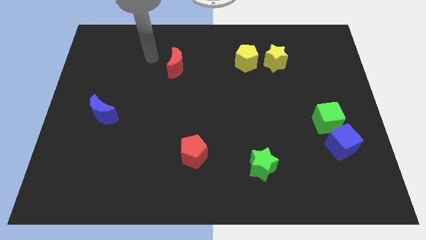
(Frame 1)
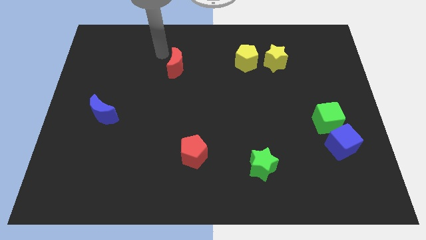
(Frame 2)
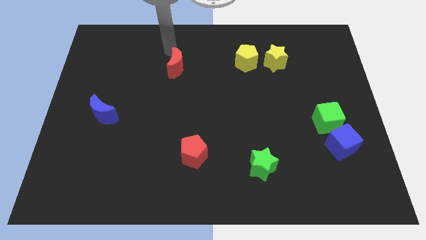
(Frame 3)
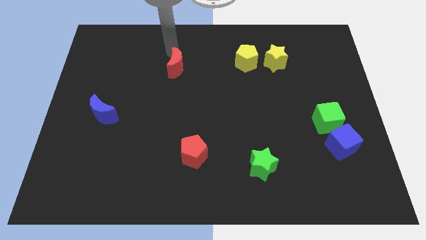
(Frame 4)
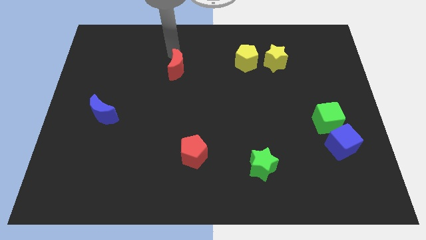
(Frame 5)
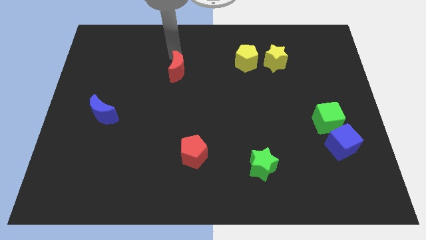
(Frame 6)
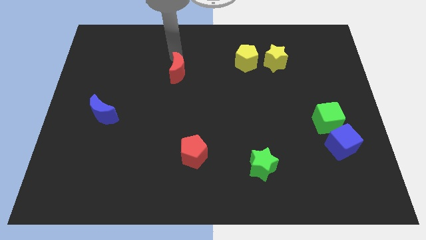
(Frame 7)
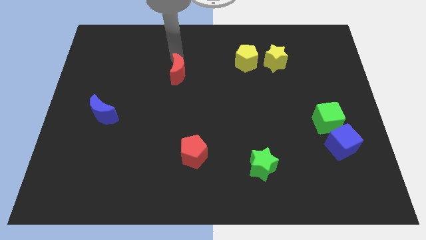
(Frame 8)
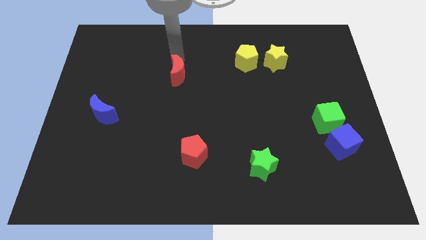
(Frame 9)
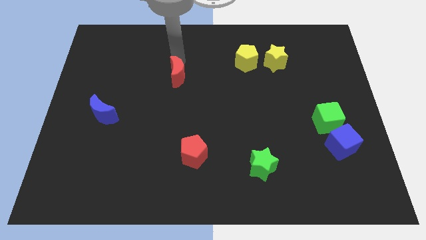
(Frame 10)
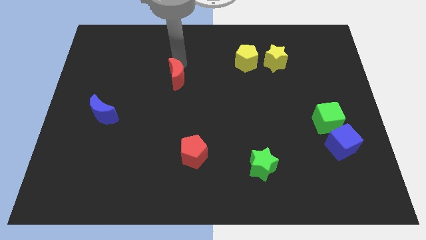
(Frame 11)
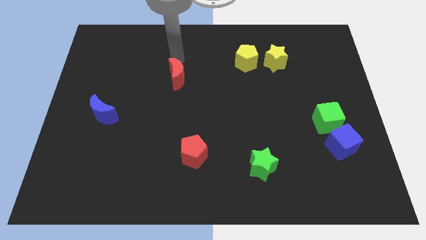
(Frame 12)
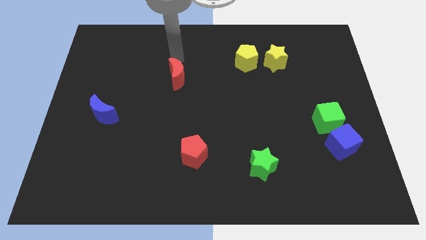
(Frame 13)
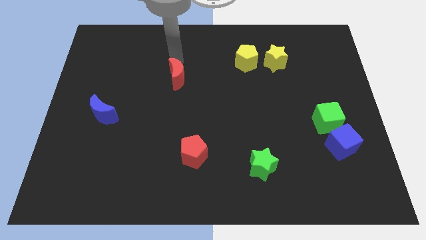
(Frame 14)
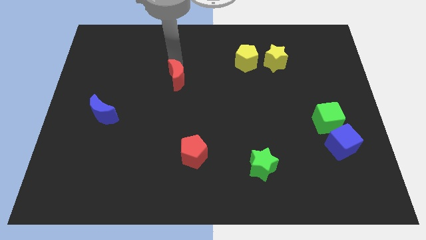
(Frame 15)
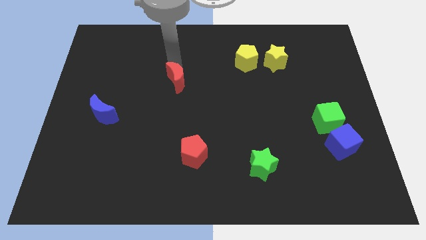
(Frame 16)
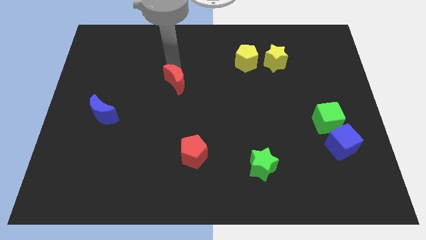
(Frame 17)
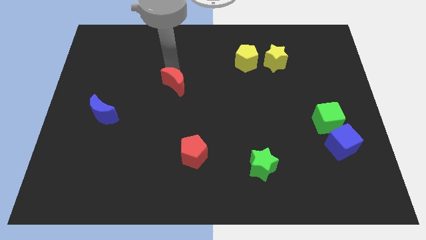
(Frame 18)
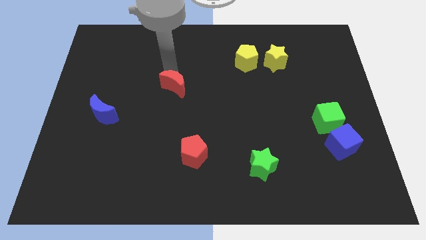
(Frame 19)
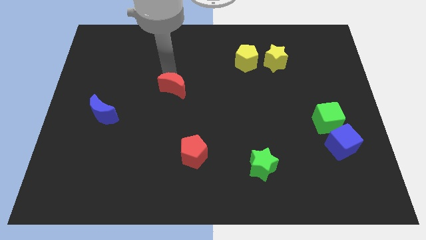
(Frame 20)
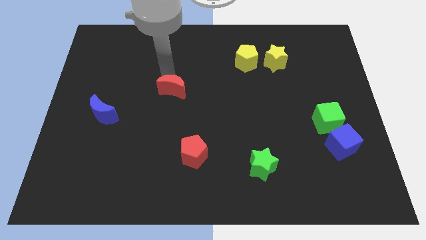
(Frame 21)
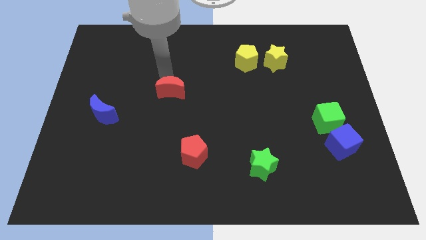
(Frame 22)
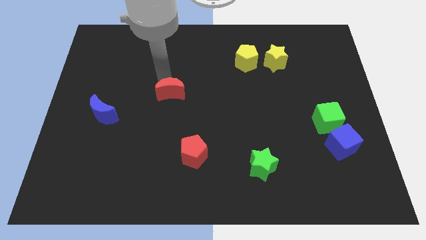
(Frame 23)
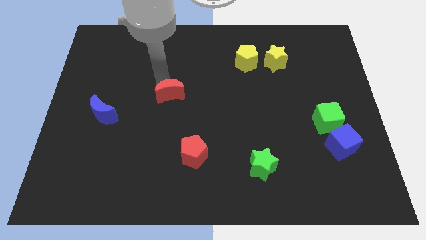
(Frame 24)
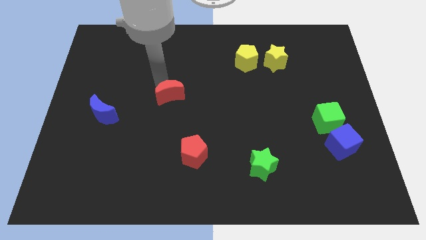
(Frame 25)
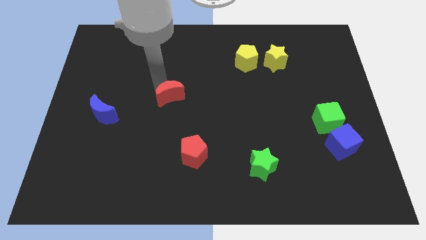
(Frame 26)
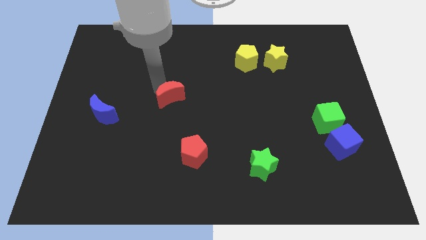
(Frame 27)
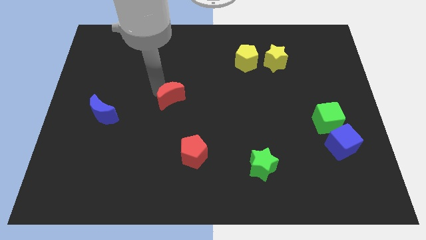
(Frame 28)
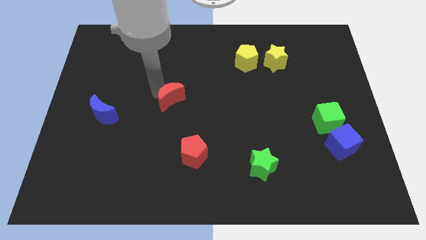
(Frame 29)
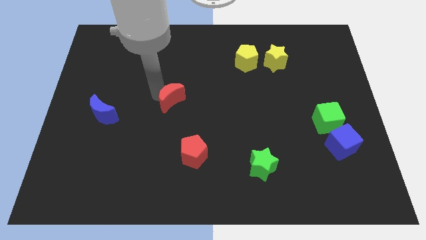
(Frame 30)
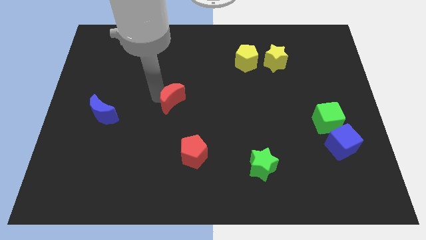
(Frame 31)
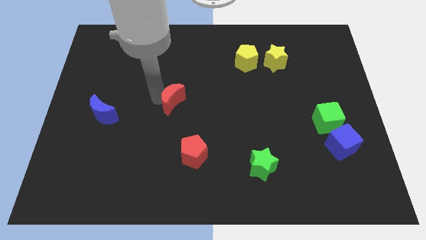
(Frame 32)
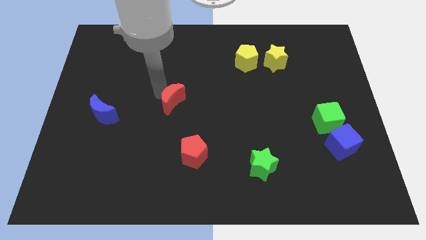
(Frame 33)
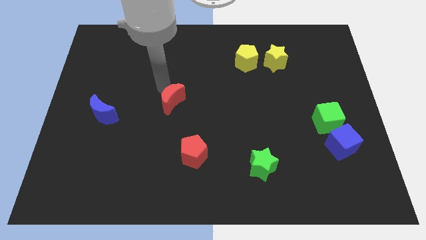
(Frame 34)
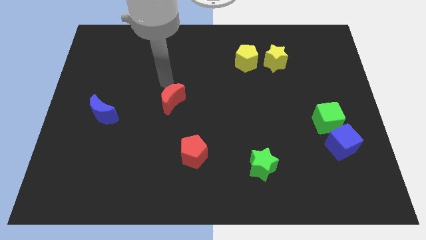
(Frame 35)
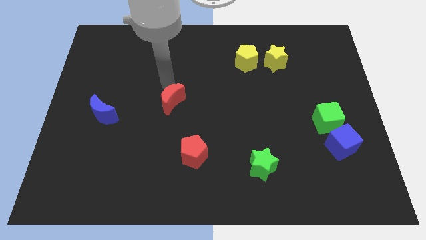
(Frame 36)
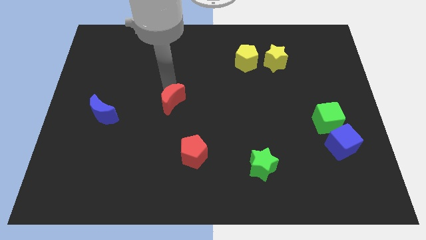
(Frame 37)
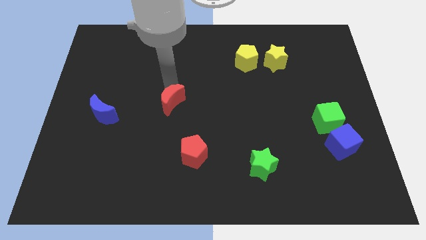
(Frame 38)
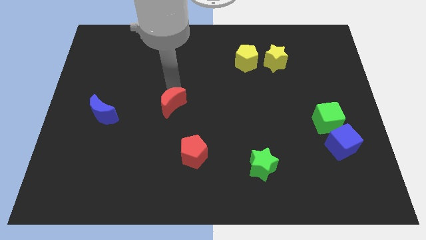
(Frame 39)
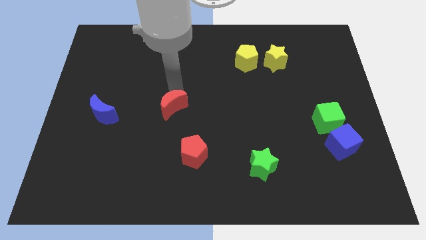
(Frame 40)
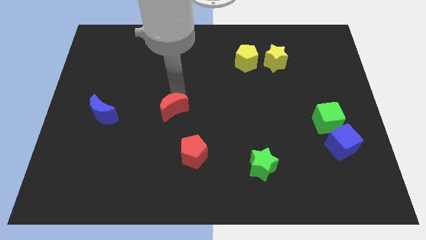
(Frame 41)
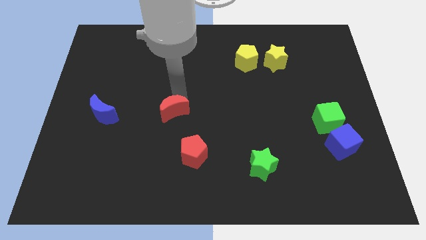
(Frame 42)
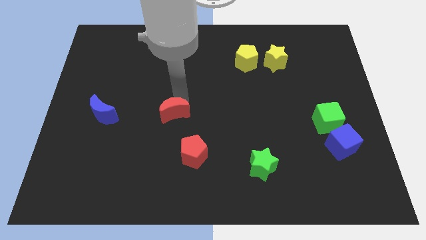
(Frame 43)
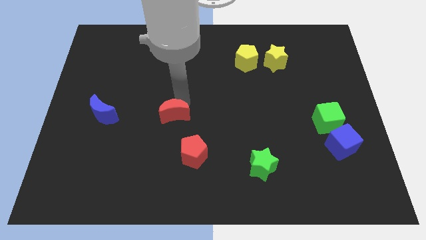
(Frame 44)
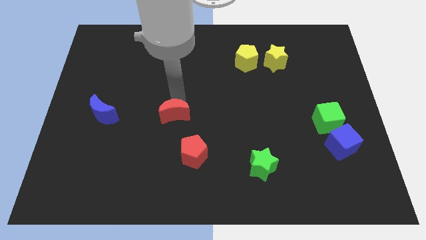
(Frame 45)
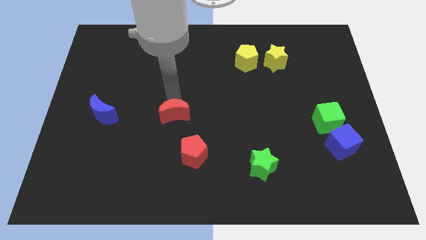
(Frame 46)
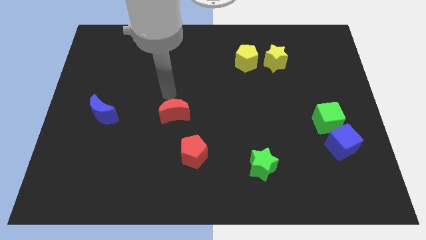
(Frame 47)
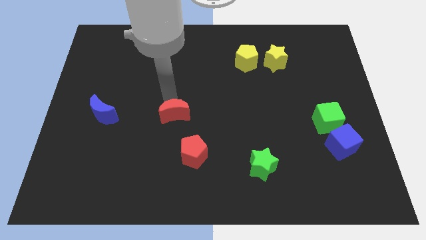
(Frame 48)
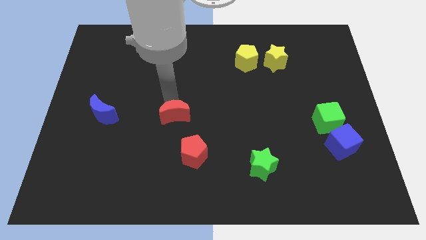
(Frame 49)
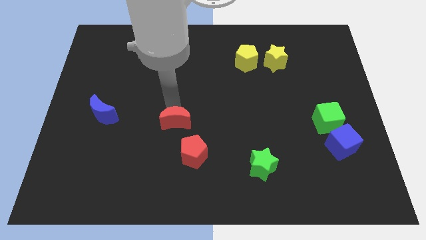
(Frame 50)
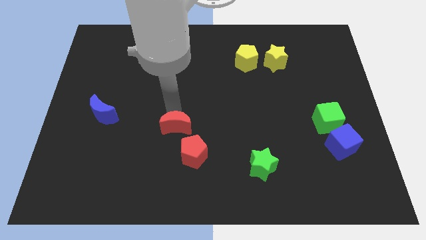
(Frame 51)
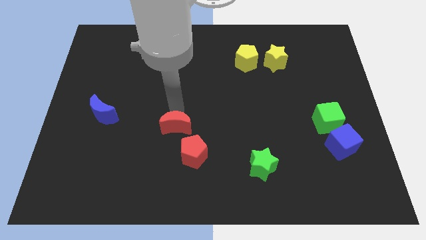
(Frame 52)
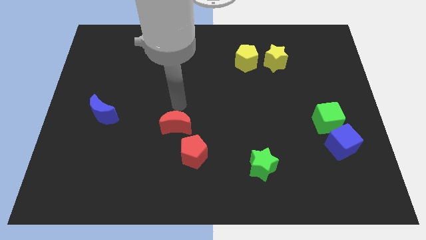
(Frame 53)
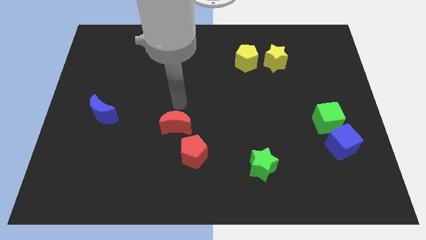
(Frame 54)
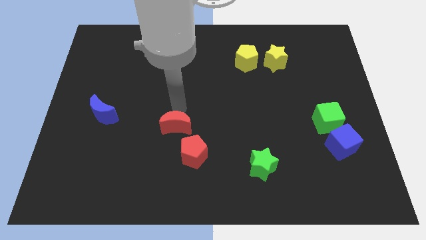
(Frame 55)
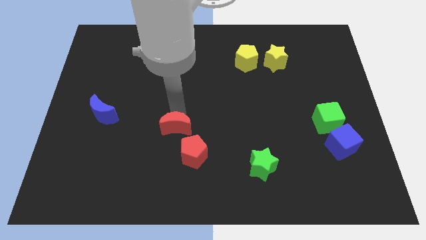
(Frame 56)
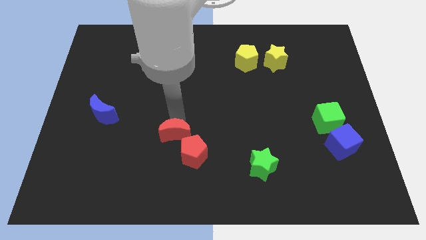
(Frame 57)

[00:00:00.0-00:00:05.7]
push the red moon down

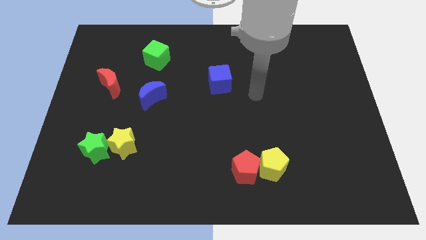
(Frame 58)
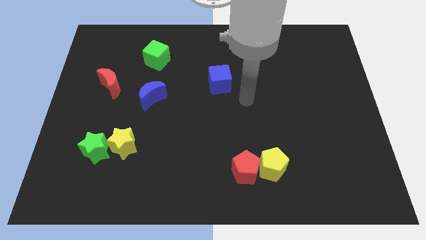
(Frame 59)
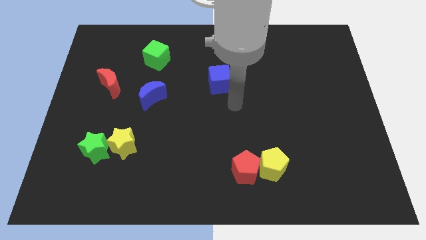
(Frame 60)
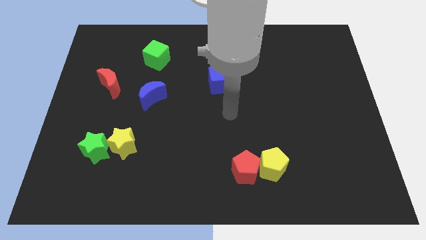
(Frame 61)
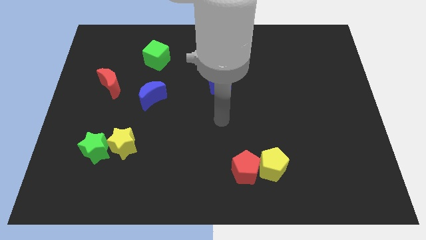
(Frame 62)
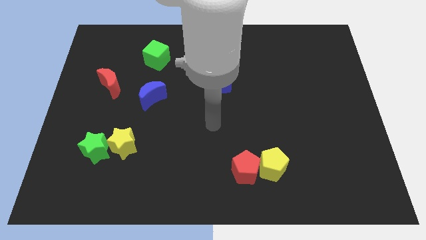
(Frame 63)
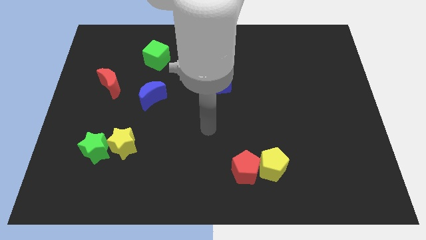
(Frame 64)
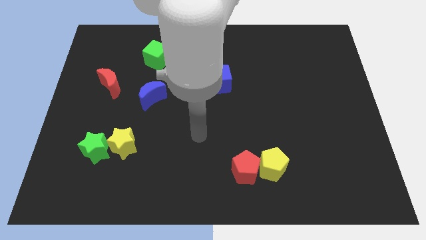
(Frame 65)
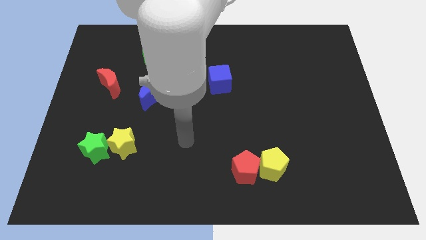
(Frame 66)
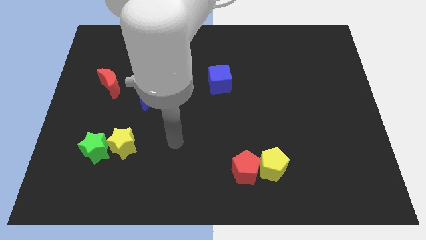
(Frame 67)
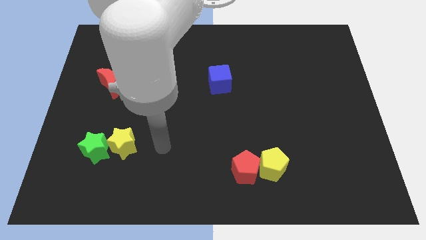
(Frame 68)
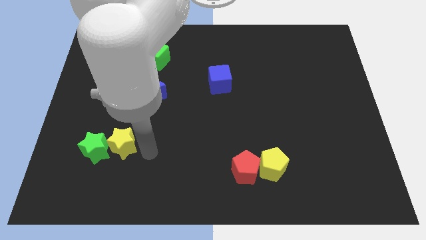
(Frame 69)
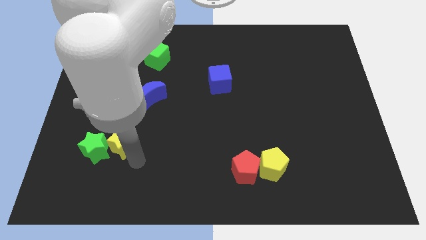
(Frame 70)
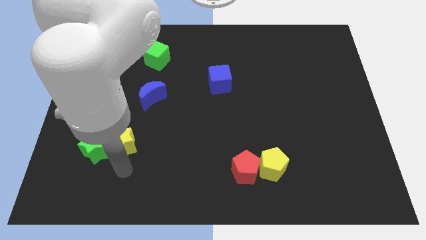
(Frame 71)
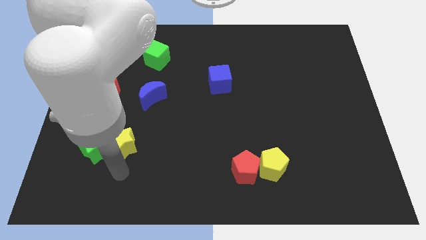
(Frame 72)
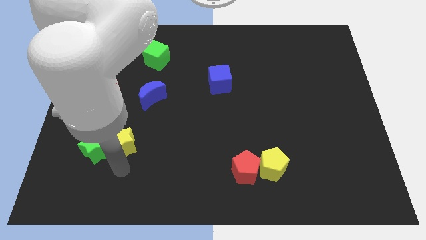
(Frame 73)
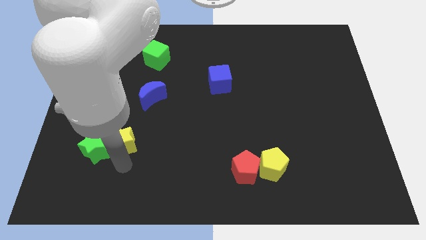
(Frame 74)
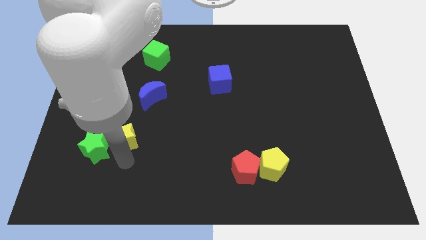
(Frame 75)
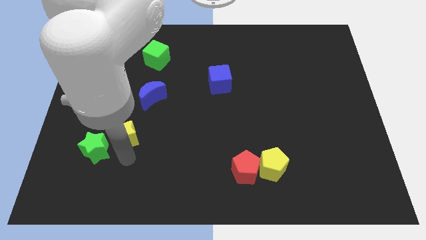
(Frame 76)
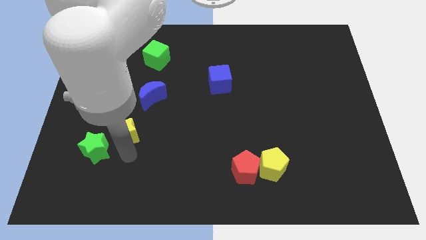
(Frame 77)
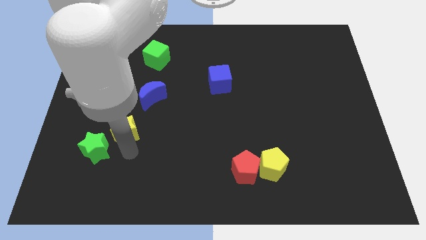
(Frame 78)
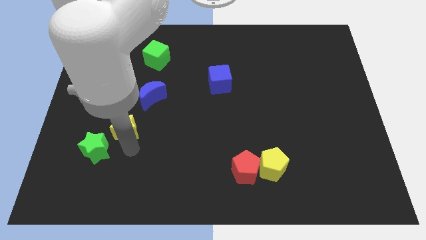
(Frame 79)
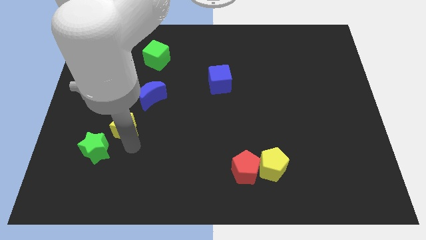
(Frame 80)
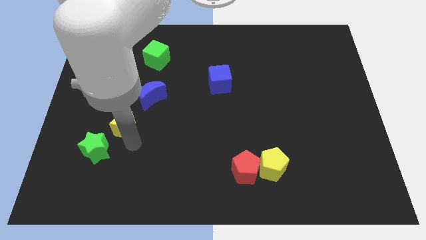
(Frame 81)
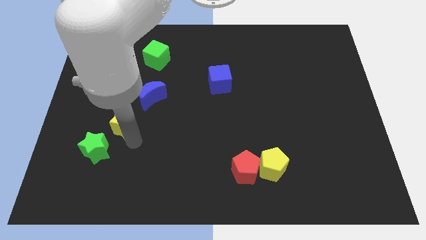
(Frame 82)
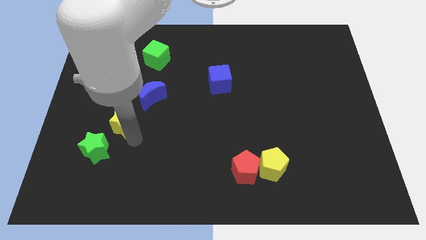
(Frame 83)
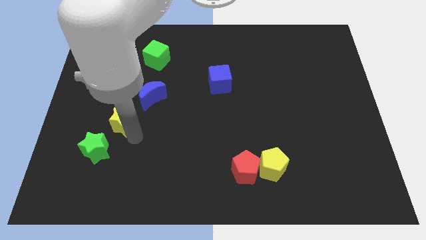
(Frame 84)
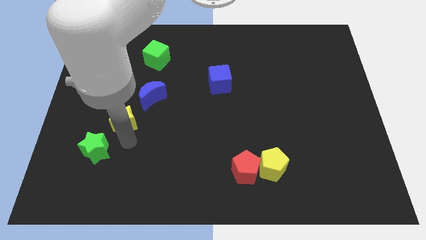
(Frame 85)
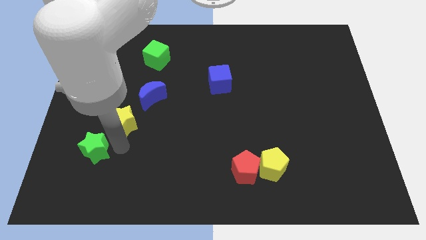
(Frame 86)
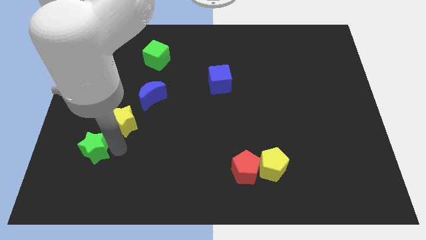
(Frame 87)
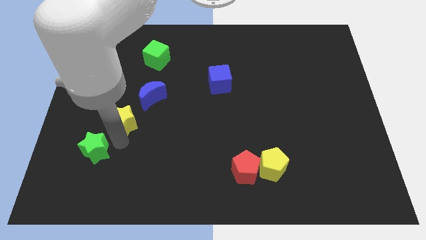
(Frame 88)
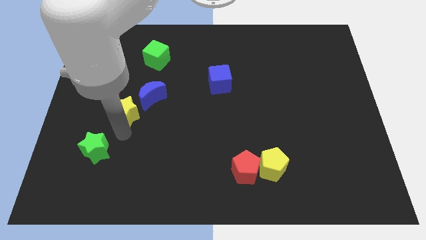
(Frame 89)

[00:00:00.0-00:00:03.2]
slightly slide the yellow star upwards
